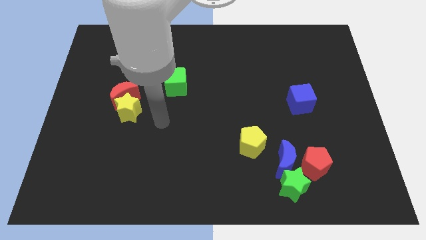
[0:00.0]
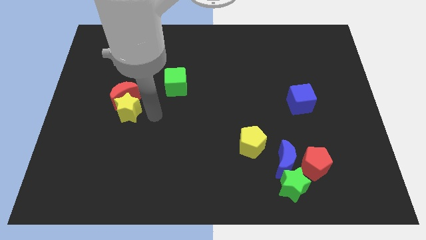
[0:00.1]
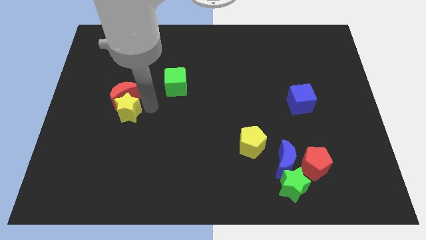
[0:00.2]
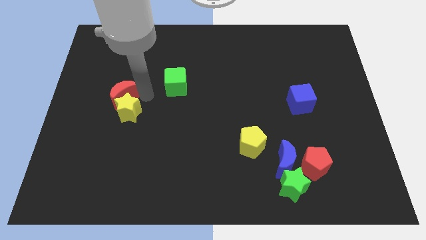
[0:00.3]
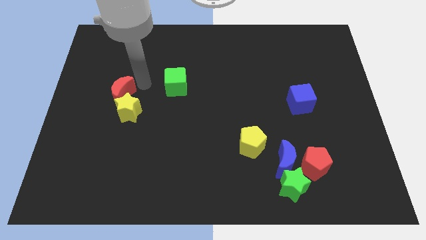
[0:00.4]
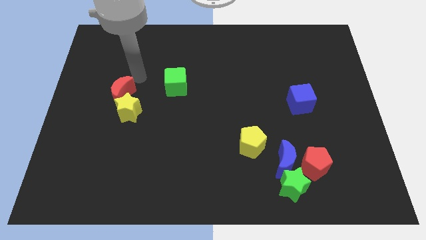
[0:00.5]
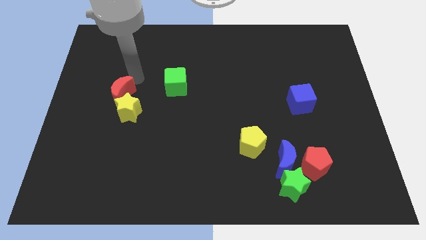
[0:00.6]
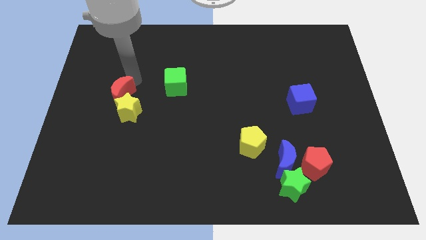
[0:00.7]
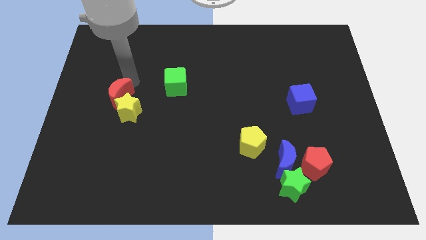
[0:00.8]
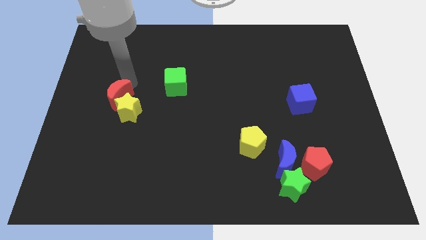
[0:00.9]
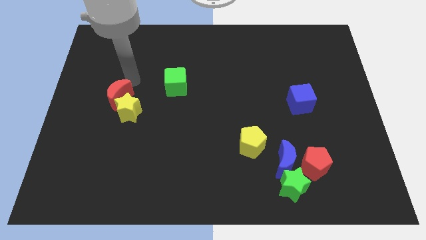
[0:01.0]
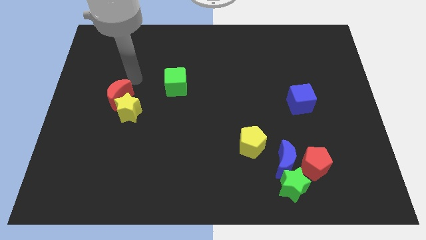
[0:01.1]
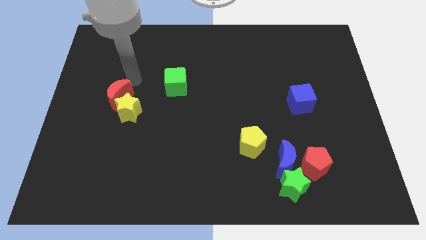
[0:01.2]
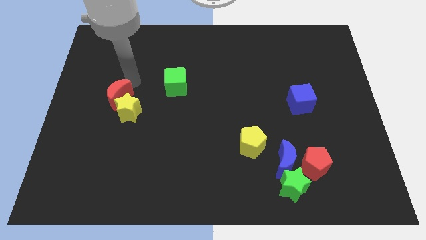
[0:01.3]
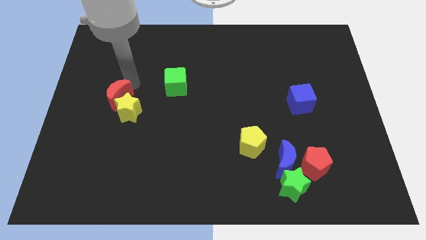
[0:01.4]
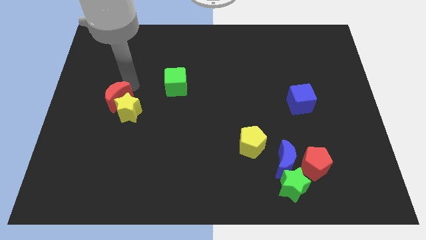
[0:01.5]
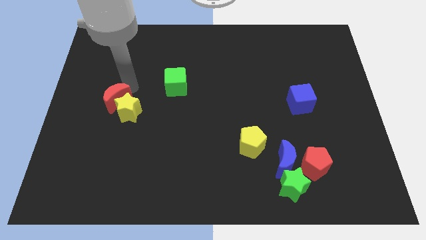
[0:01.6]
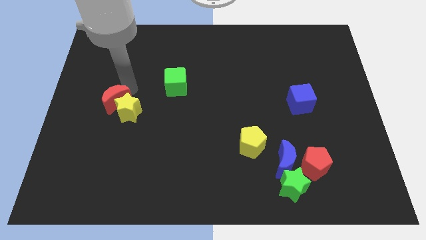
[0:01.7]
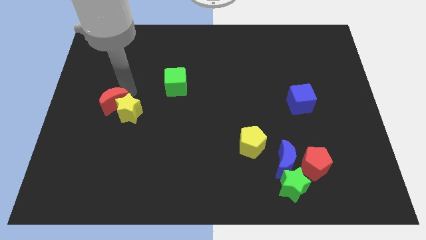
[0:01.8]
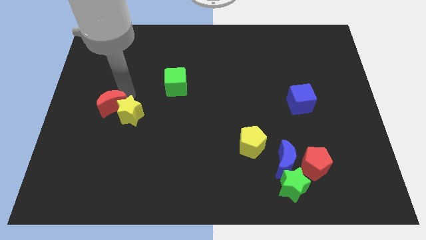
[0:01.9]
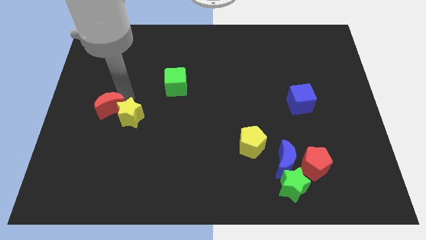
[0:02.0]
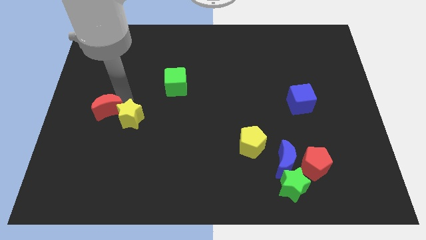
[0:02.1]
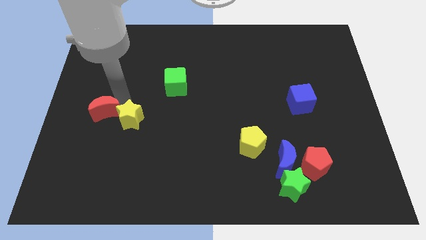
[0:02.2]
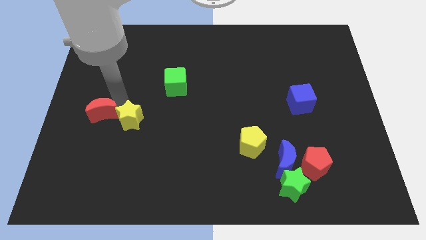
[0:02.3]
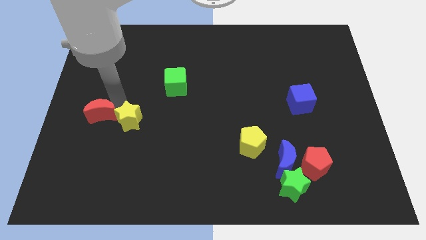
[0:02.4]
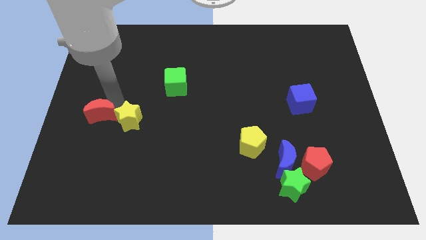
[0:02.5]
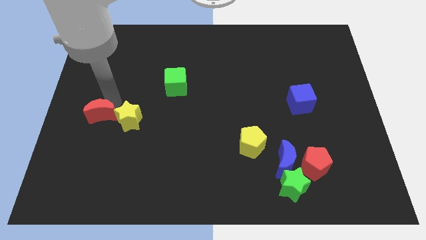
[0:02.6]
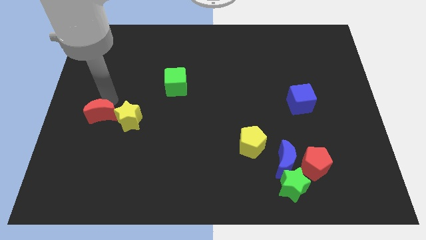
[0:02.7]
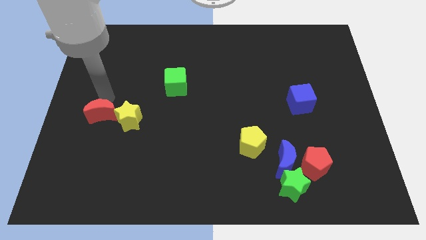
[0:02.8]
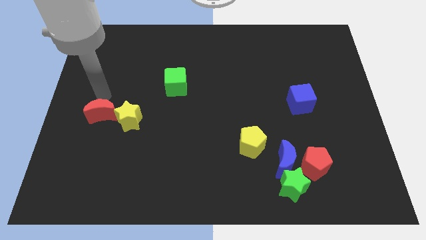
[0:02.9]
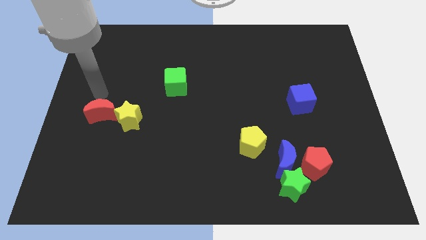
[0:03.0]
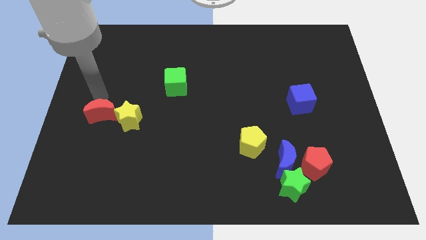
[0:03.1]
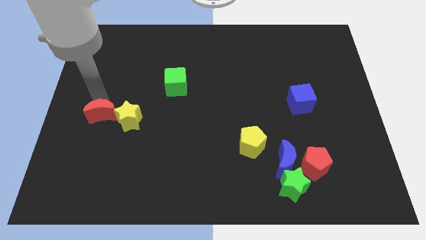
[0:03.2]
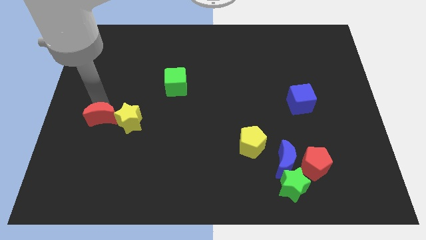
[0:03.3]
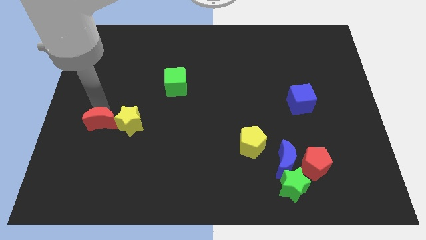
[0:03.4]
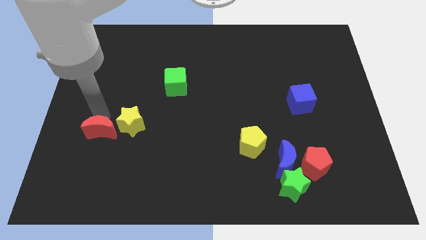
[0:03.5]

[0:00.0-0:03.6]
push the red moon a little down

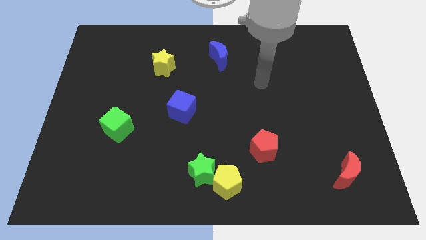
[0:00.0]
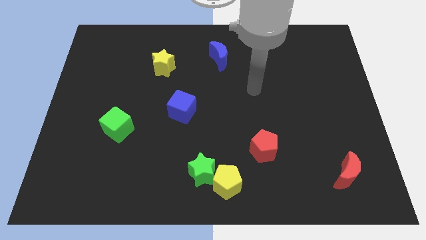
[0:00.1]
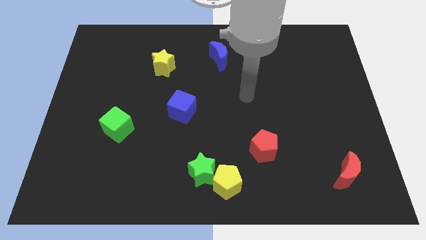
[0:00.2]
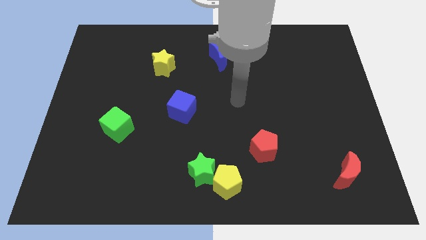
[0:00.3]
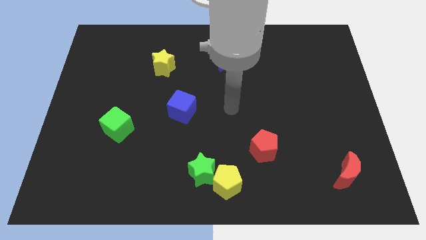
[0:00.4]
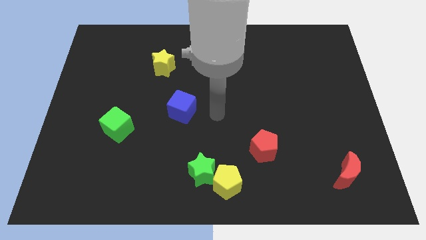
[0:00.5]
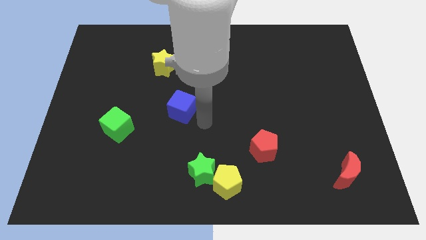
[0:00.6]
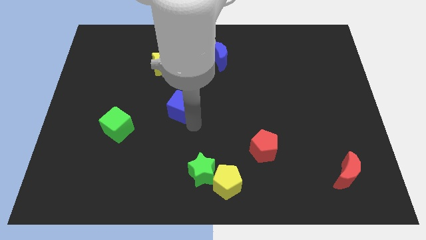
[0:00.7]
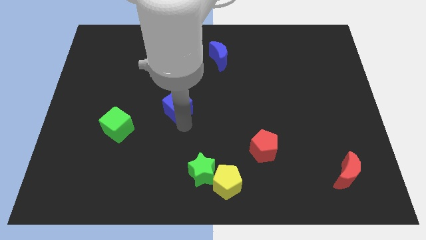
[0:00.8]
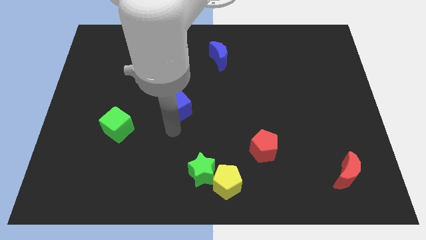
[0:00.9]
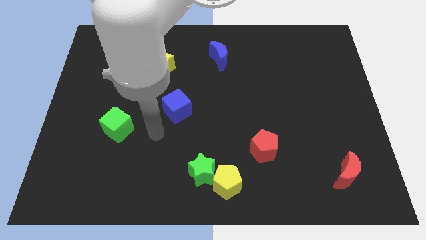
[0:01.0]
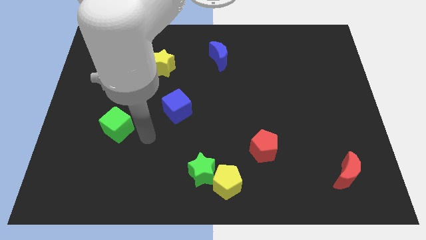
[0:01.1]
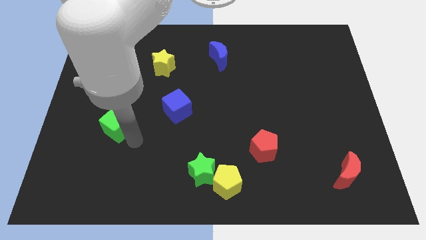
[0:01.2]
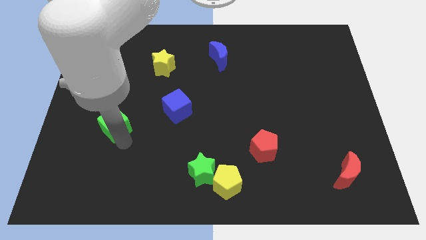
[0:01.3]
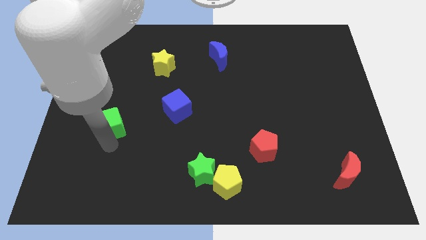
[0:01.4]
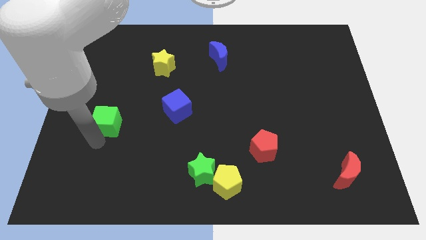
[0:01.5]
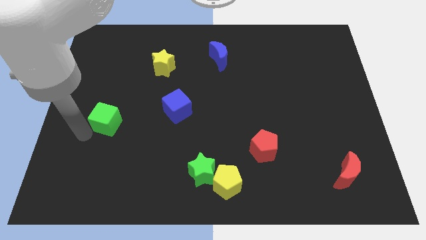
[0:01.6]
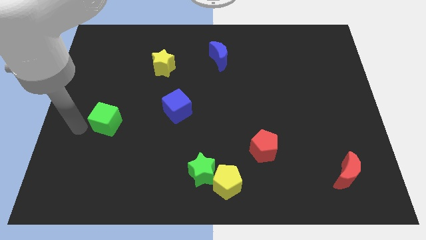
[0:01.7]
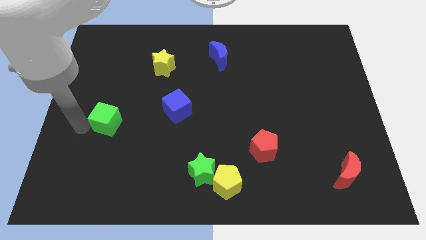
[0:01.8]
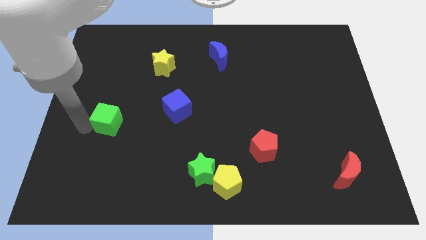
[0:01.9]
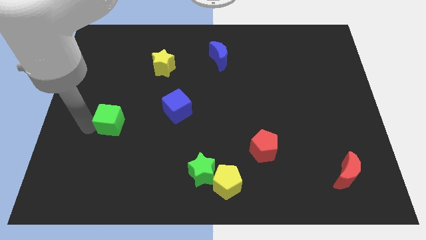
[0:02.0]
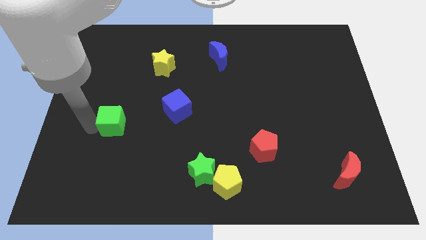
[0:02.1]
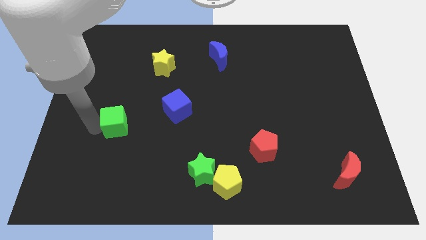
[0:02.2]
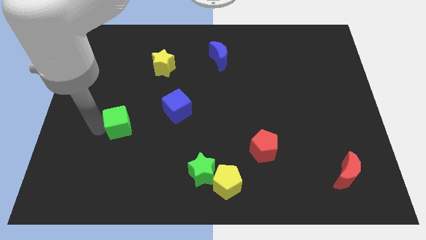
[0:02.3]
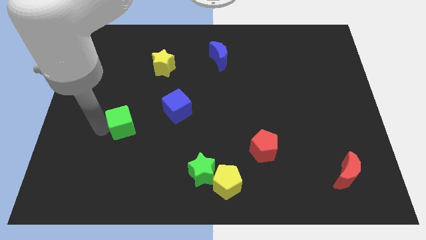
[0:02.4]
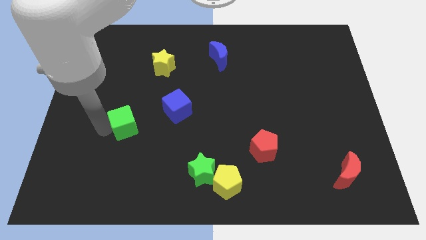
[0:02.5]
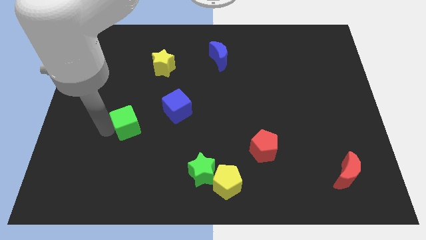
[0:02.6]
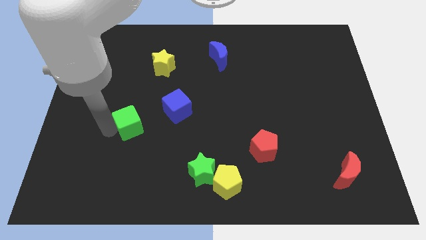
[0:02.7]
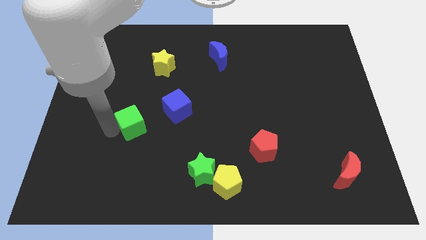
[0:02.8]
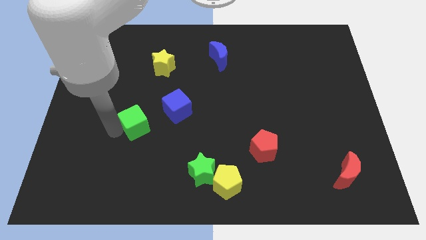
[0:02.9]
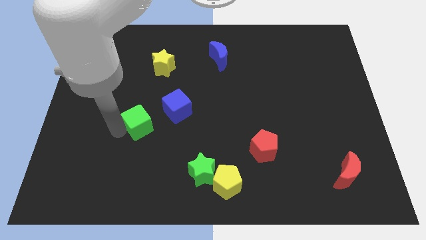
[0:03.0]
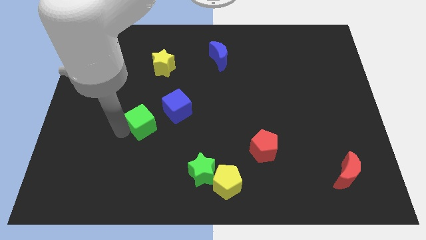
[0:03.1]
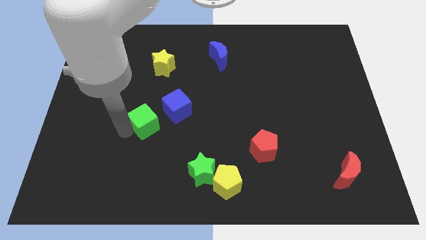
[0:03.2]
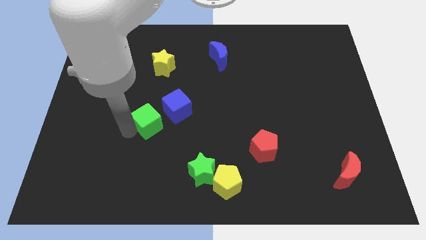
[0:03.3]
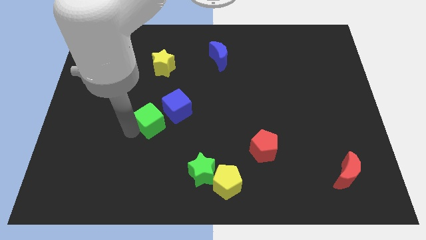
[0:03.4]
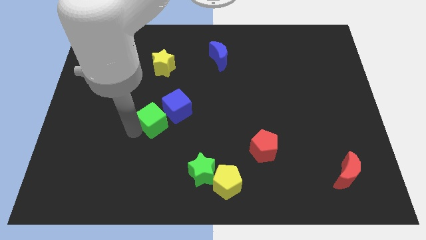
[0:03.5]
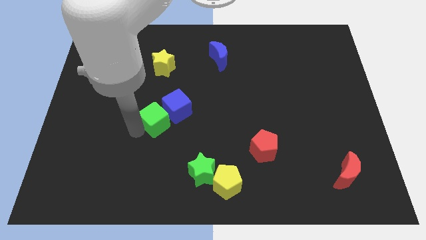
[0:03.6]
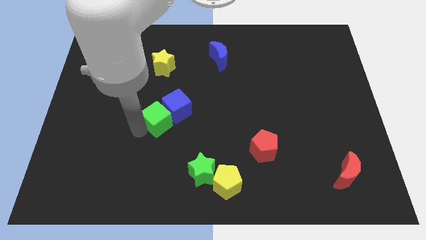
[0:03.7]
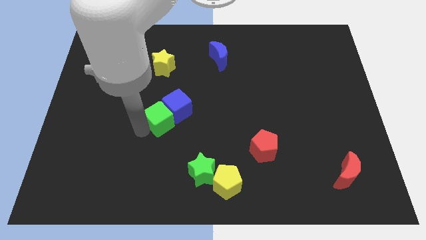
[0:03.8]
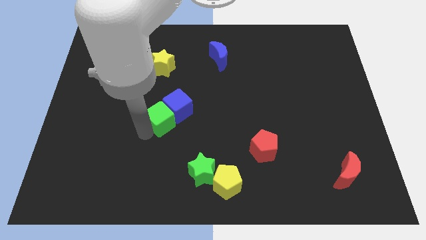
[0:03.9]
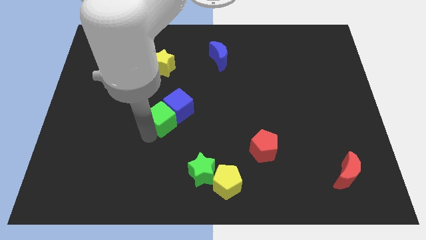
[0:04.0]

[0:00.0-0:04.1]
move the green cube slightly upwards and to the right

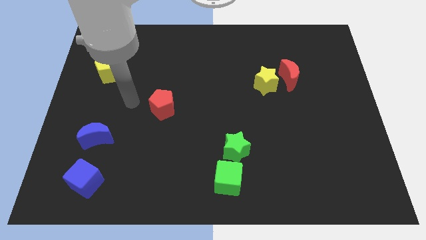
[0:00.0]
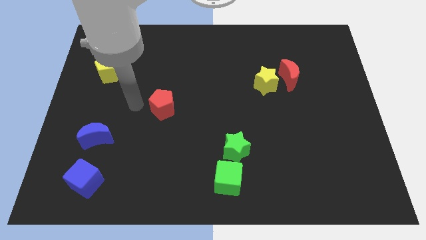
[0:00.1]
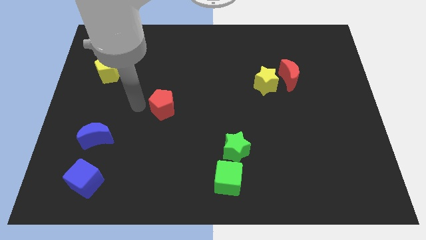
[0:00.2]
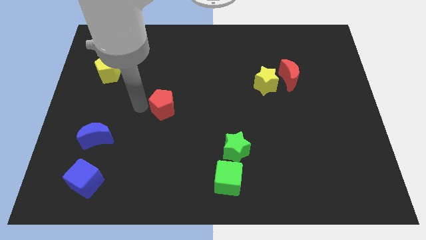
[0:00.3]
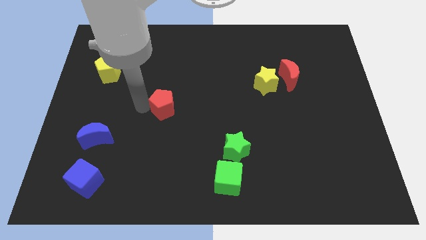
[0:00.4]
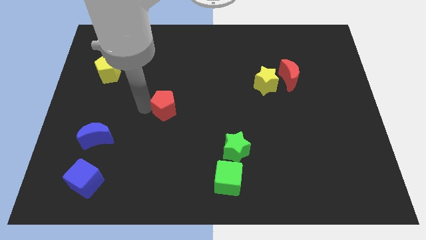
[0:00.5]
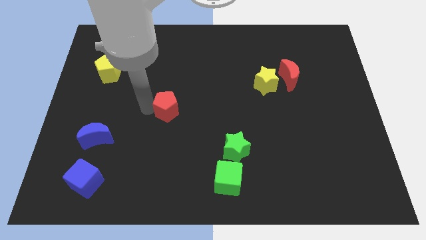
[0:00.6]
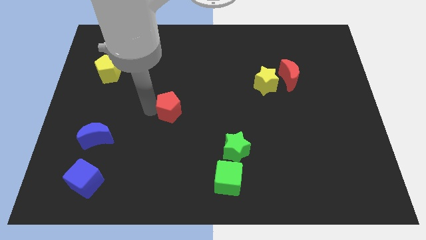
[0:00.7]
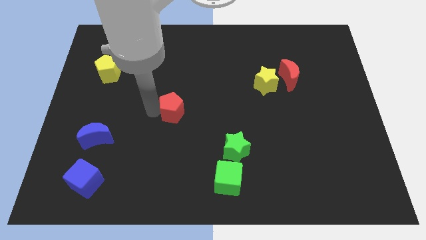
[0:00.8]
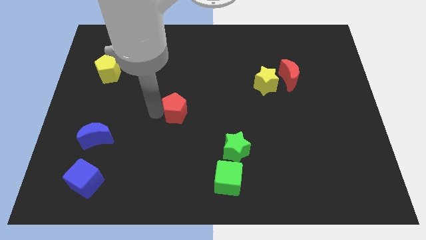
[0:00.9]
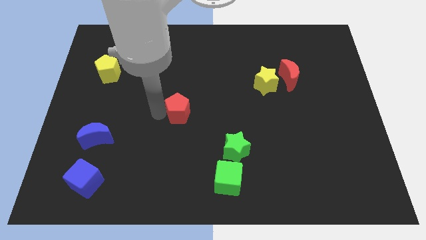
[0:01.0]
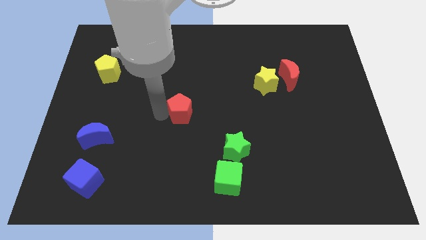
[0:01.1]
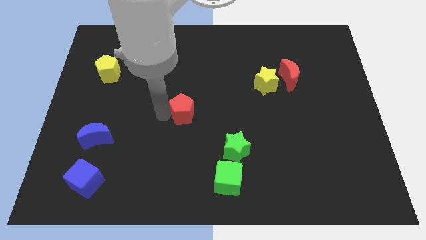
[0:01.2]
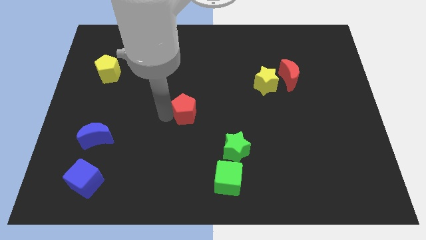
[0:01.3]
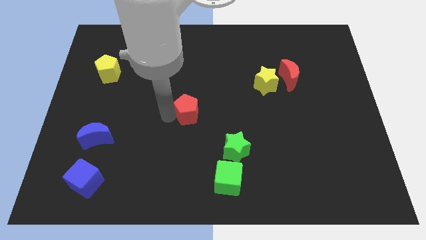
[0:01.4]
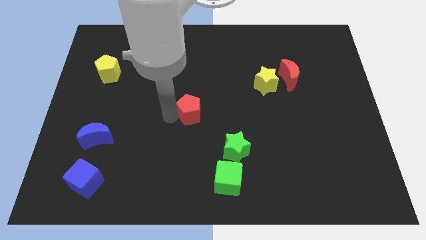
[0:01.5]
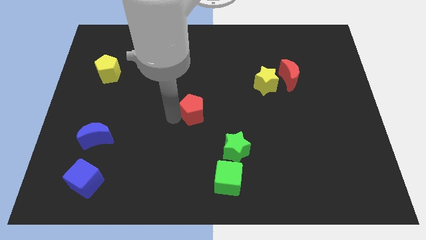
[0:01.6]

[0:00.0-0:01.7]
slide the red pentagon right a little
